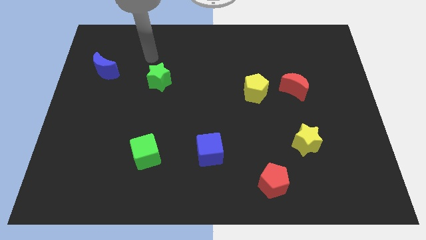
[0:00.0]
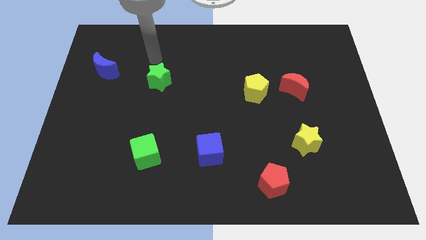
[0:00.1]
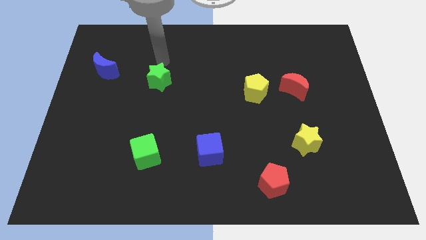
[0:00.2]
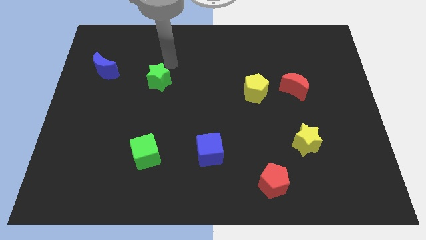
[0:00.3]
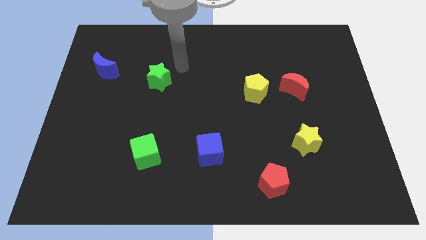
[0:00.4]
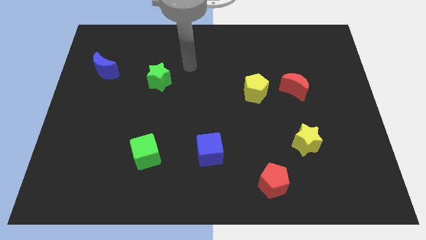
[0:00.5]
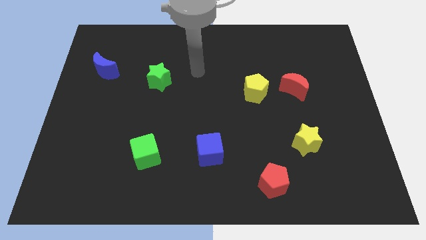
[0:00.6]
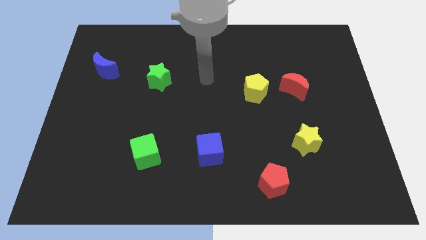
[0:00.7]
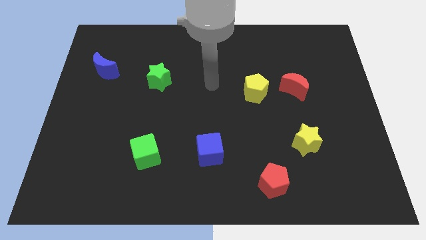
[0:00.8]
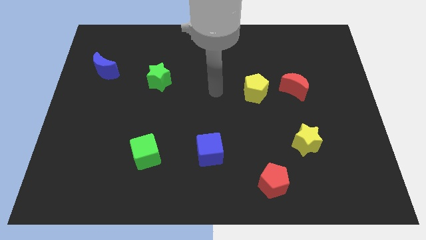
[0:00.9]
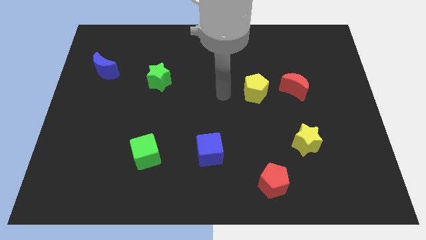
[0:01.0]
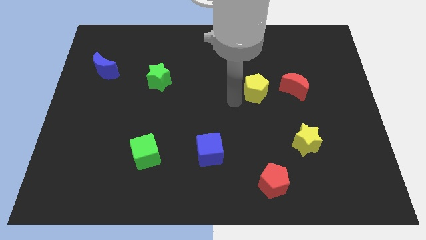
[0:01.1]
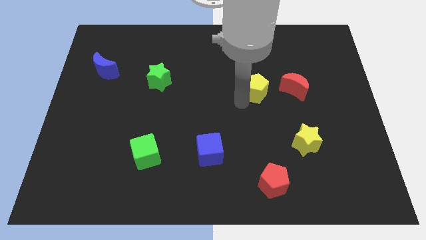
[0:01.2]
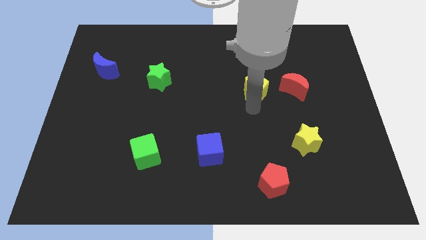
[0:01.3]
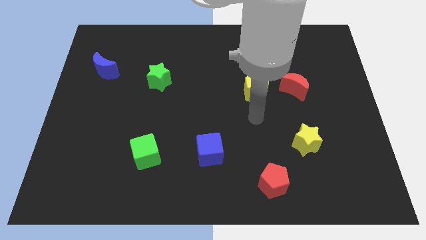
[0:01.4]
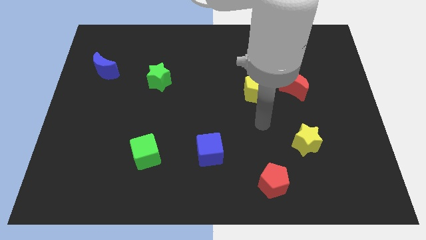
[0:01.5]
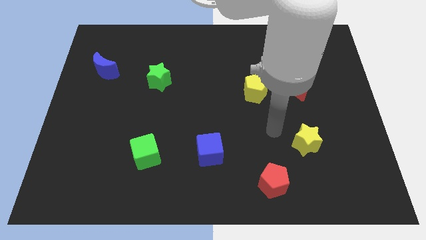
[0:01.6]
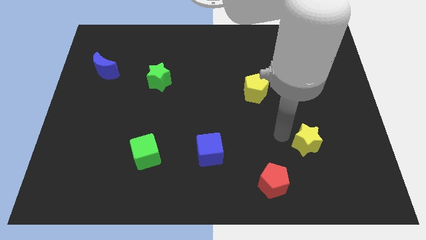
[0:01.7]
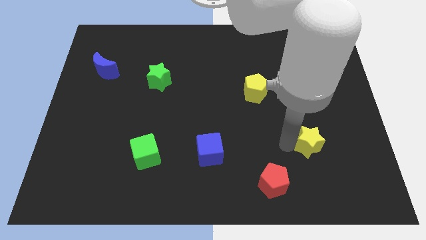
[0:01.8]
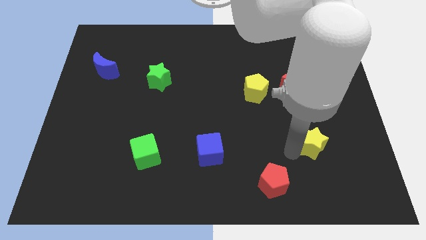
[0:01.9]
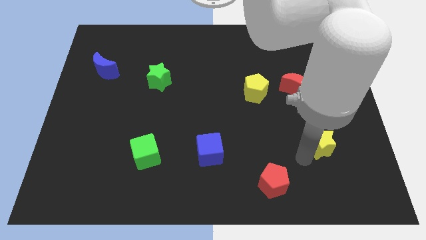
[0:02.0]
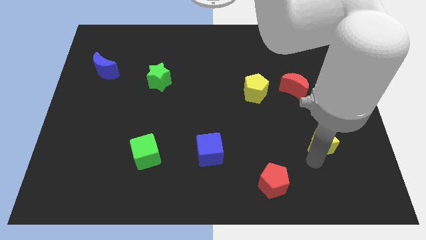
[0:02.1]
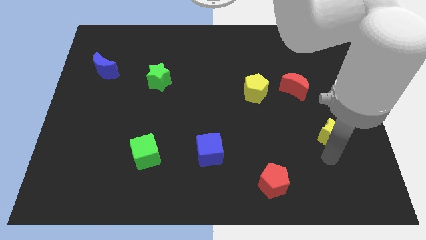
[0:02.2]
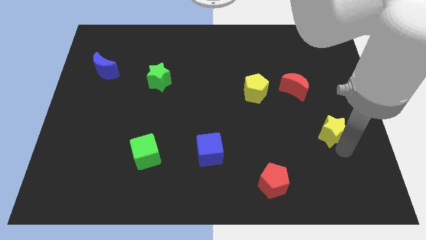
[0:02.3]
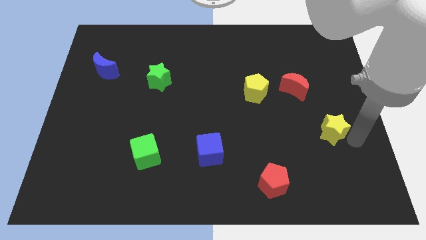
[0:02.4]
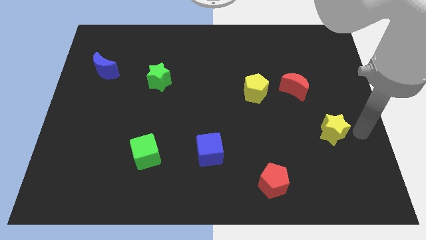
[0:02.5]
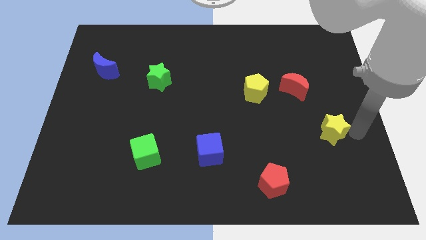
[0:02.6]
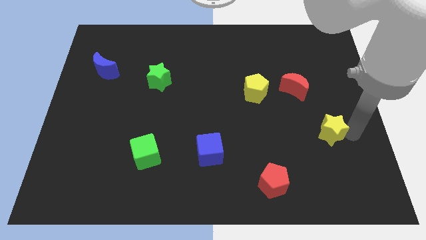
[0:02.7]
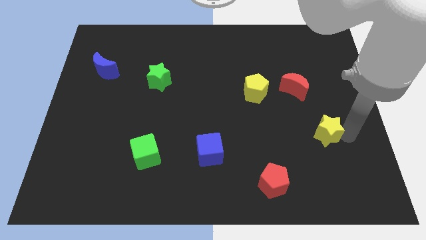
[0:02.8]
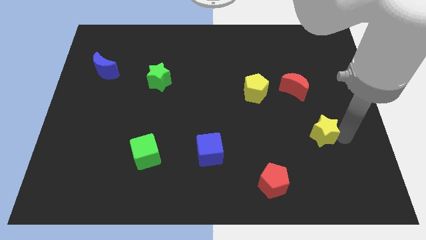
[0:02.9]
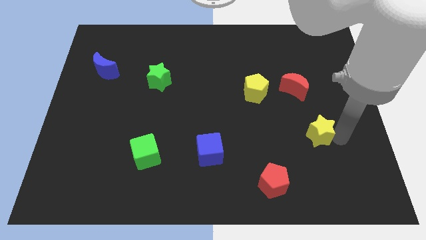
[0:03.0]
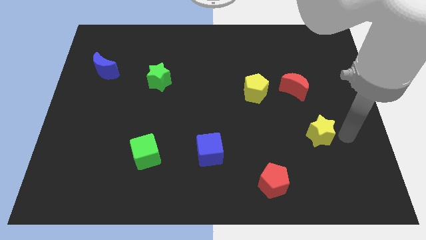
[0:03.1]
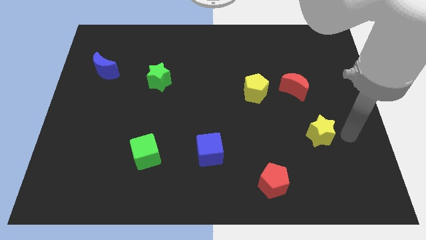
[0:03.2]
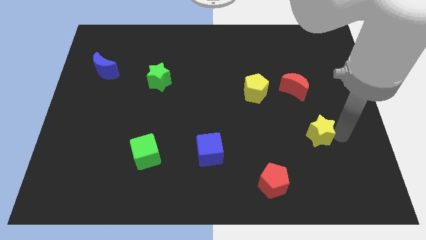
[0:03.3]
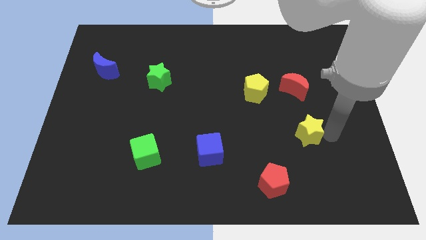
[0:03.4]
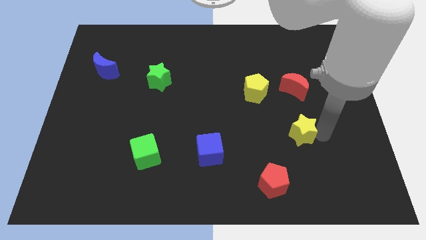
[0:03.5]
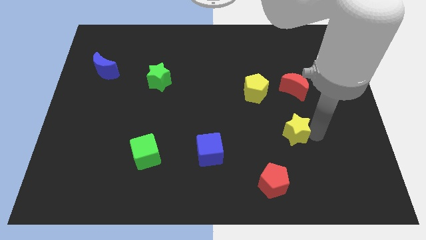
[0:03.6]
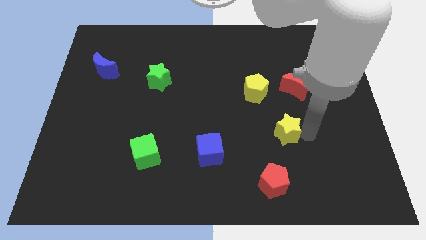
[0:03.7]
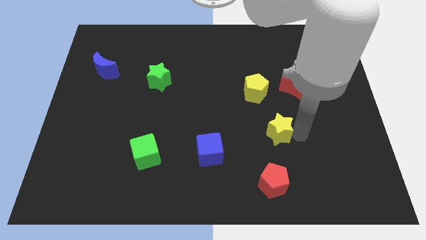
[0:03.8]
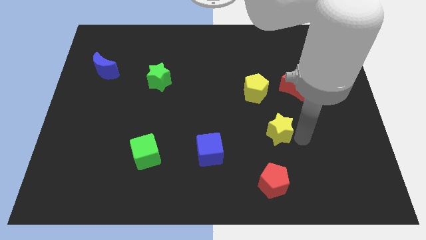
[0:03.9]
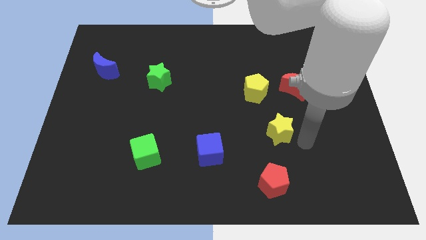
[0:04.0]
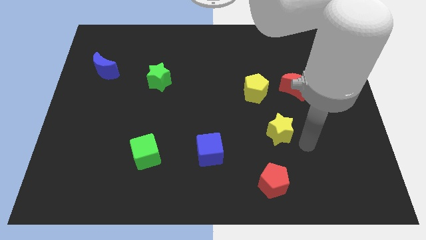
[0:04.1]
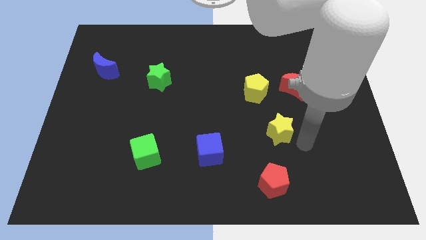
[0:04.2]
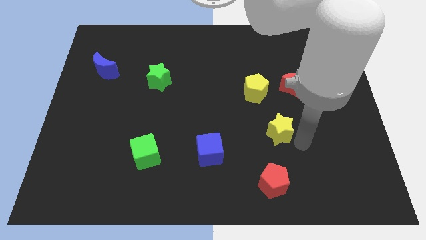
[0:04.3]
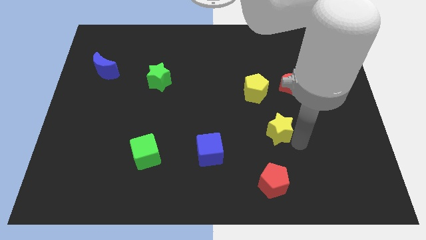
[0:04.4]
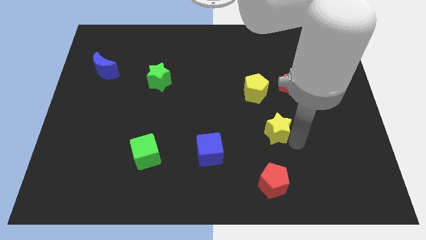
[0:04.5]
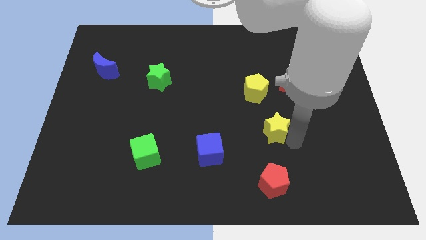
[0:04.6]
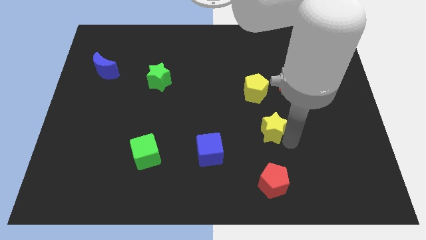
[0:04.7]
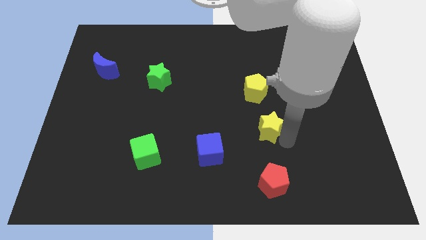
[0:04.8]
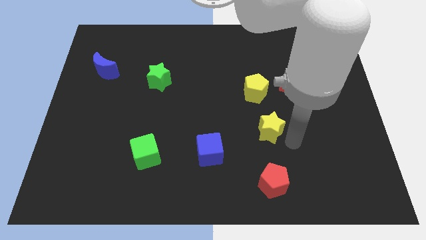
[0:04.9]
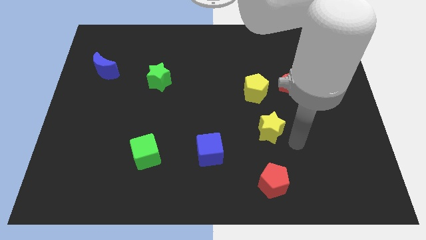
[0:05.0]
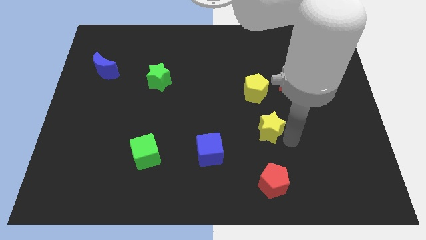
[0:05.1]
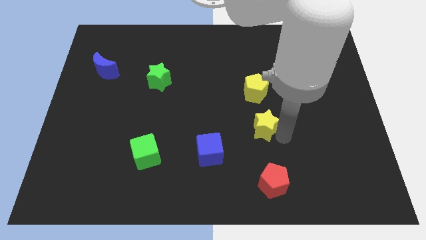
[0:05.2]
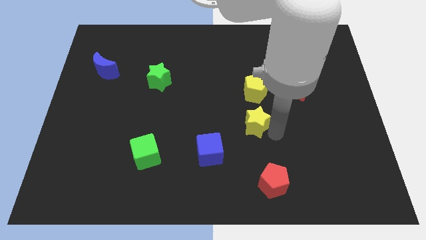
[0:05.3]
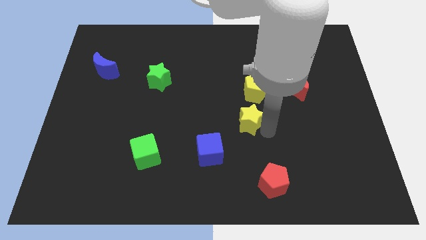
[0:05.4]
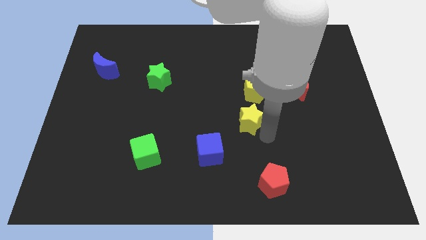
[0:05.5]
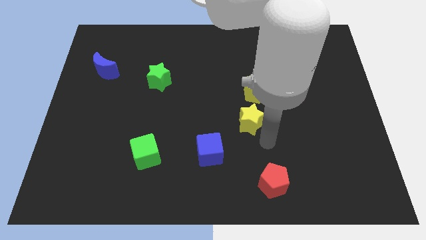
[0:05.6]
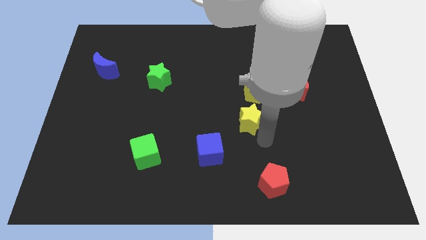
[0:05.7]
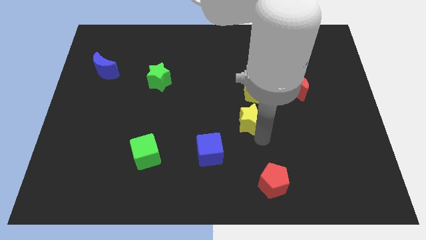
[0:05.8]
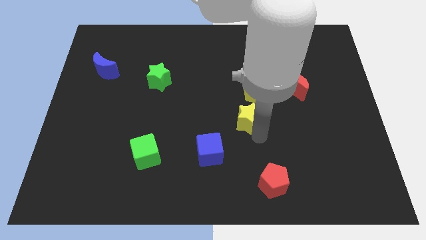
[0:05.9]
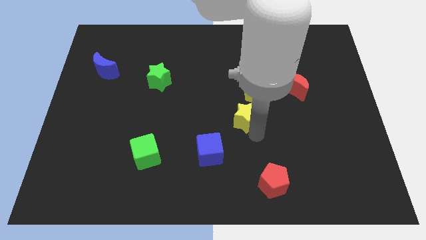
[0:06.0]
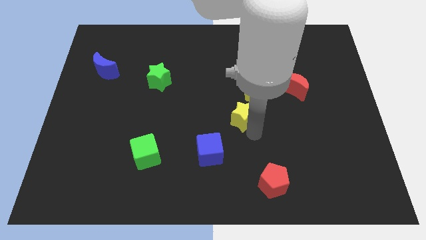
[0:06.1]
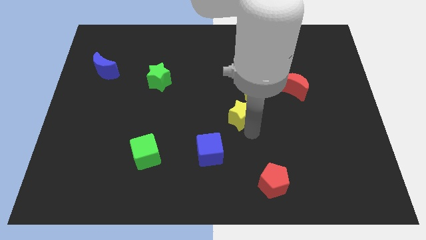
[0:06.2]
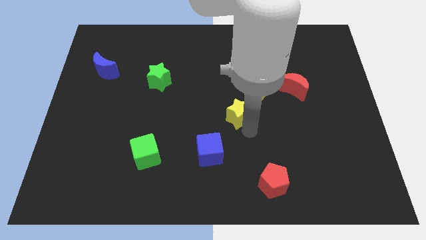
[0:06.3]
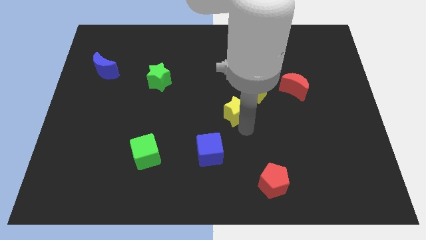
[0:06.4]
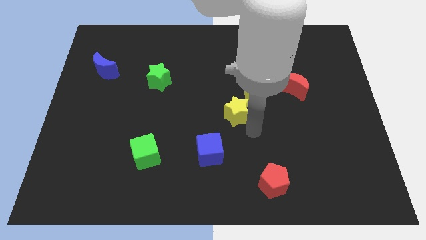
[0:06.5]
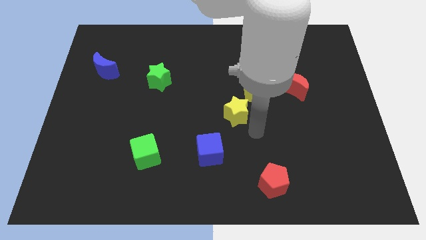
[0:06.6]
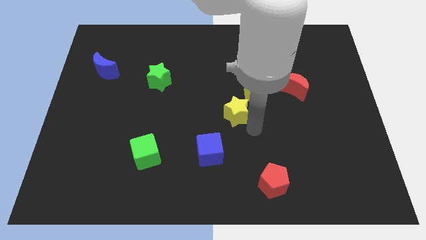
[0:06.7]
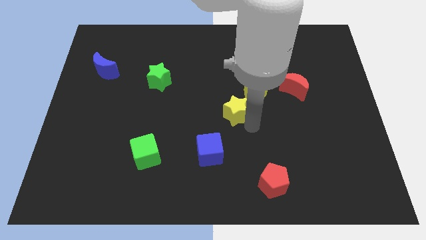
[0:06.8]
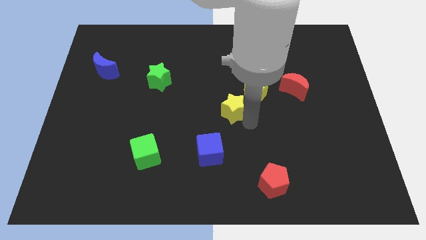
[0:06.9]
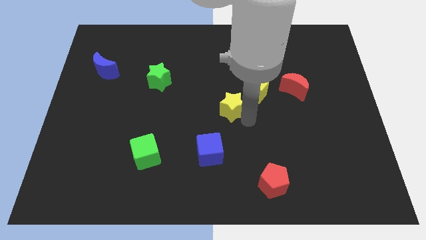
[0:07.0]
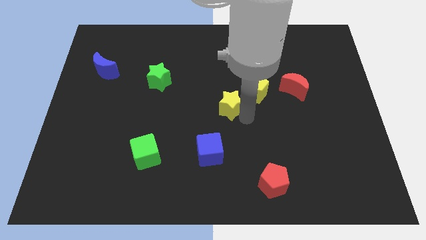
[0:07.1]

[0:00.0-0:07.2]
put the yellow star left of the yellow pentagon
